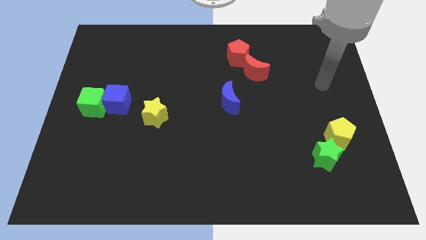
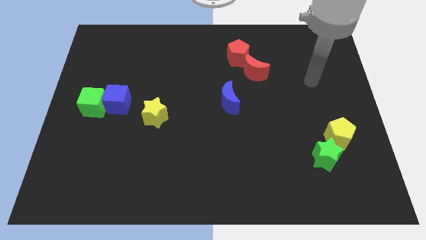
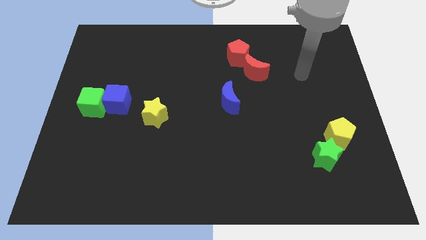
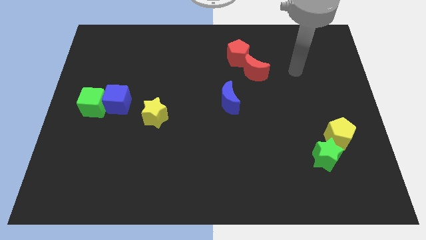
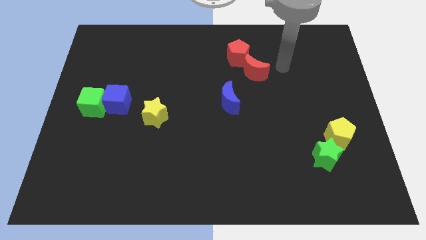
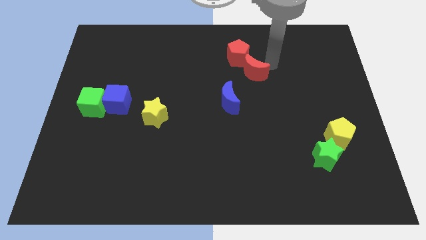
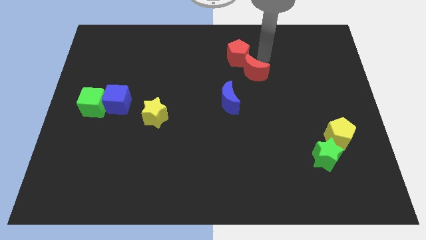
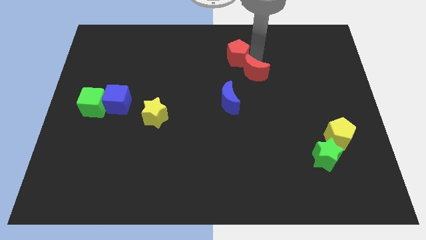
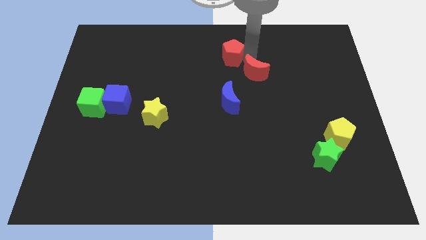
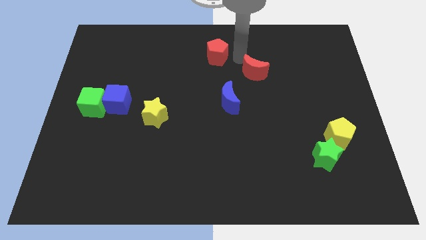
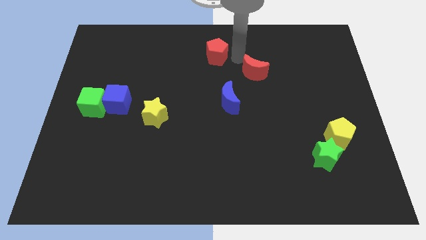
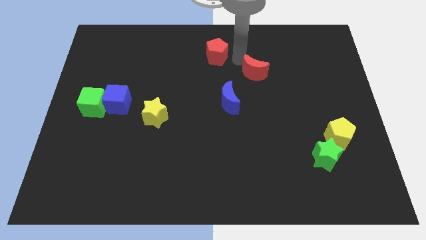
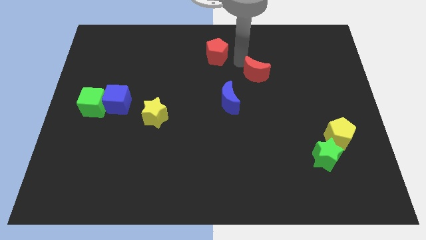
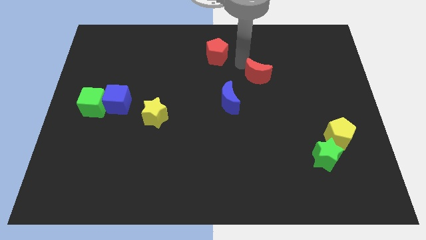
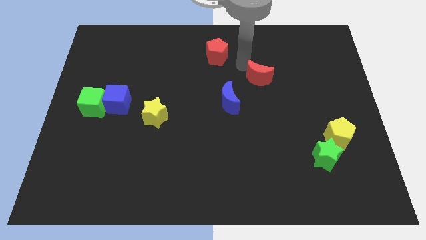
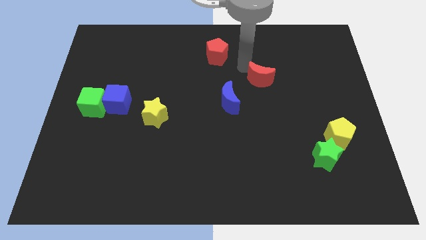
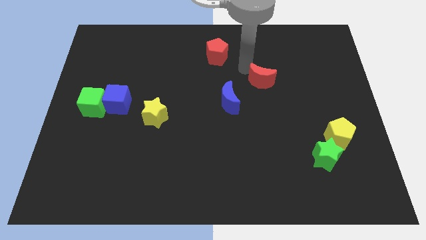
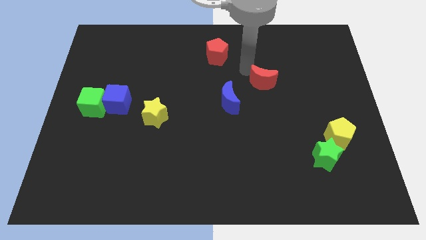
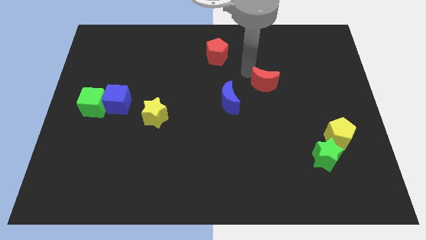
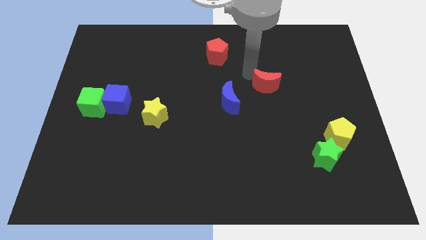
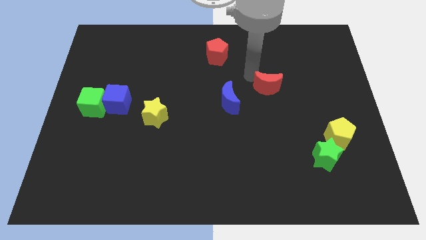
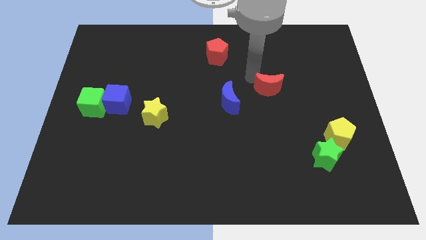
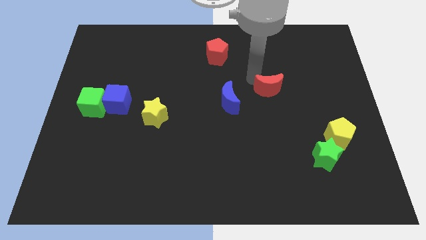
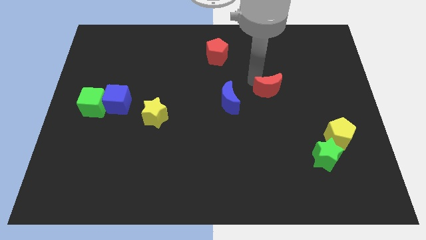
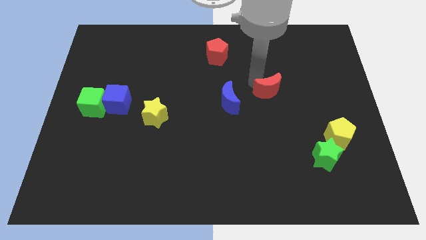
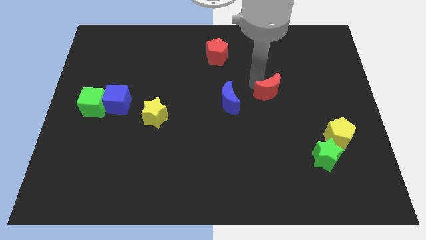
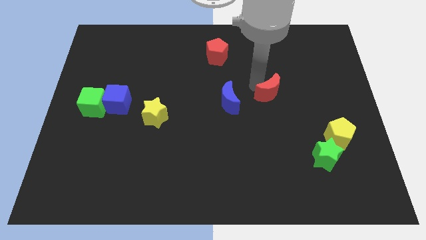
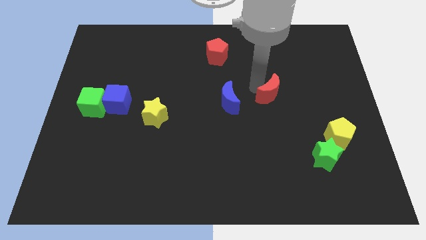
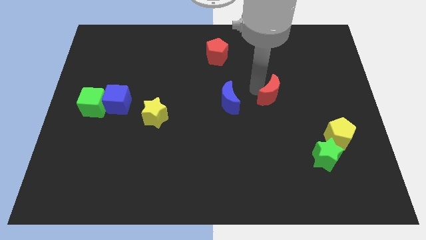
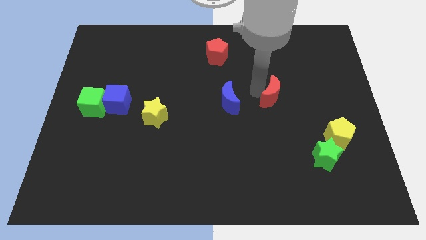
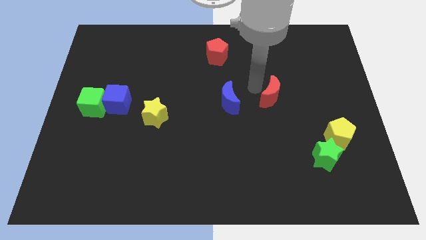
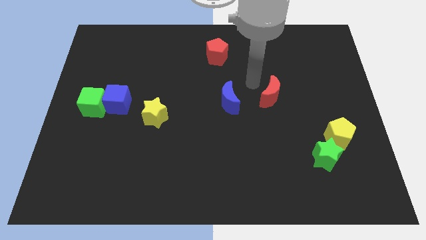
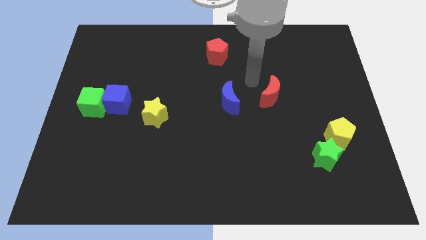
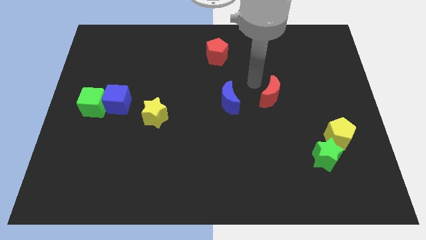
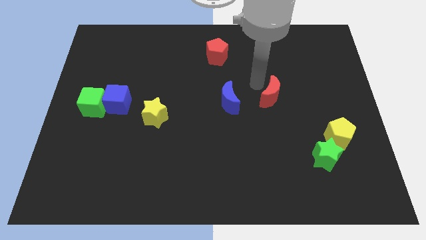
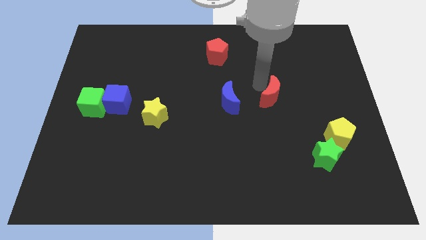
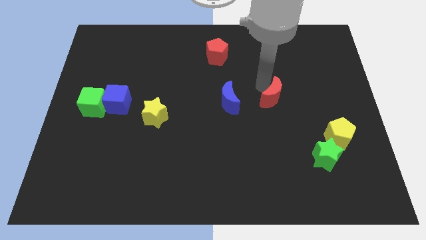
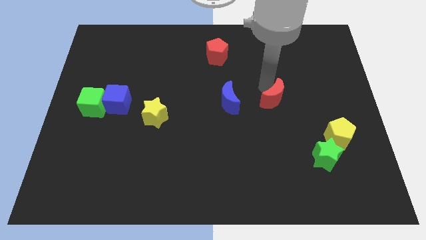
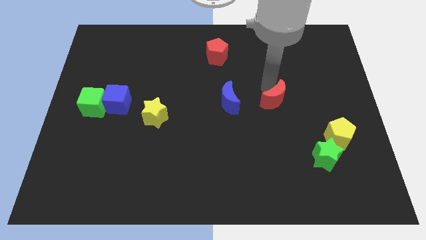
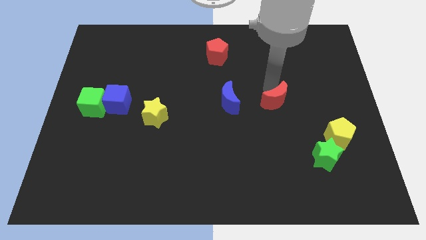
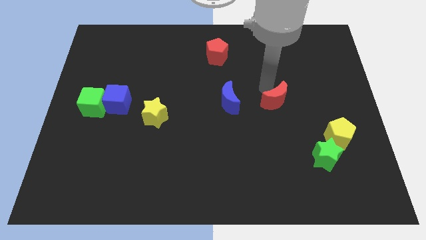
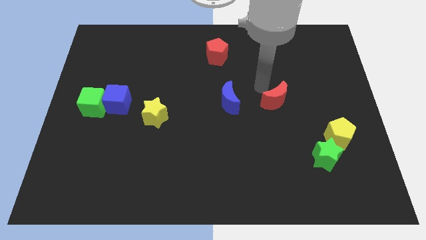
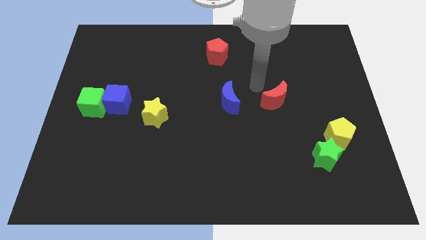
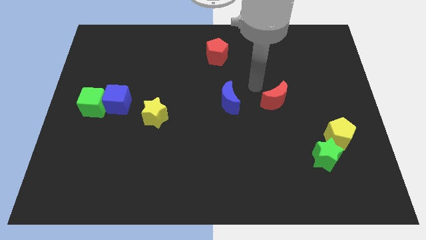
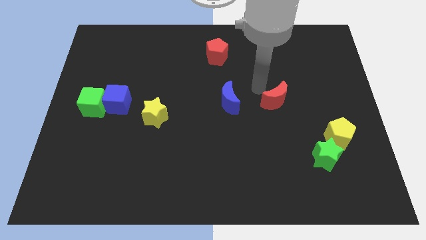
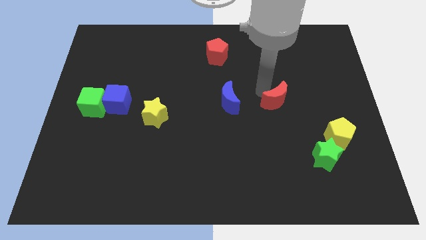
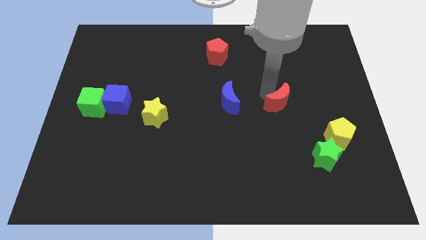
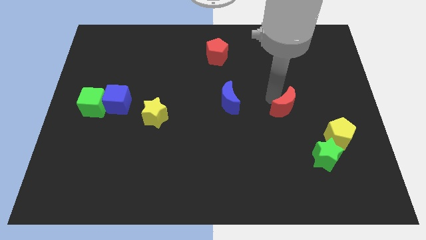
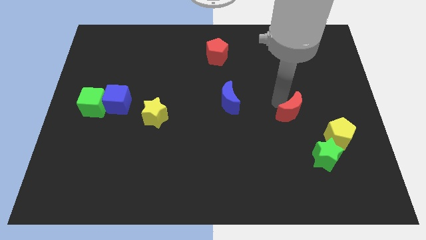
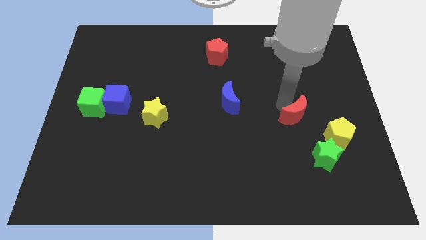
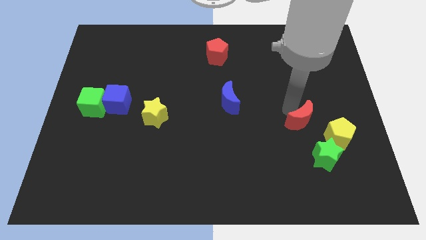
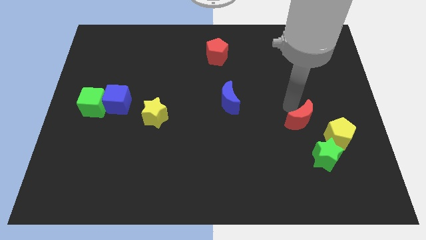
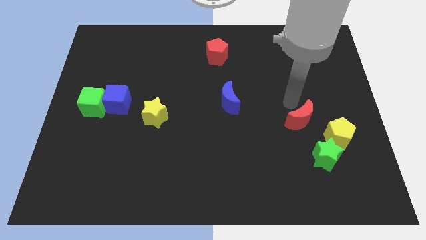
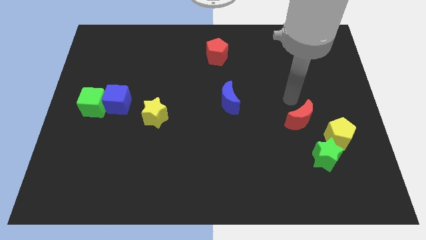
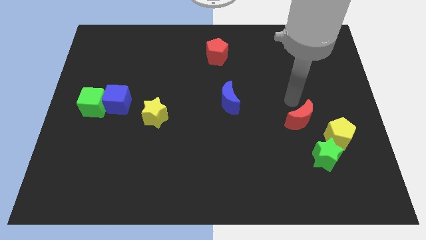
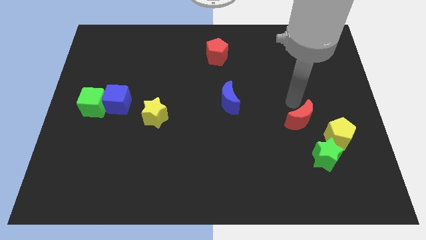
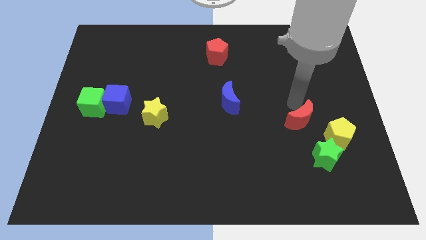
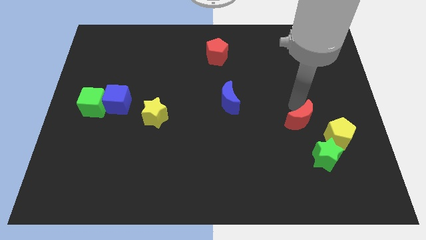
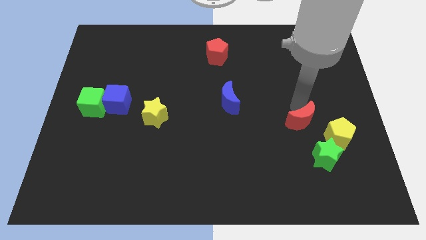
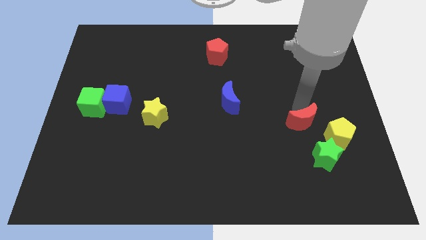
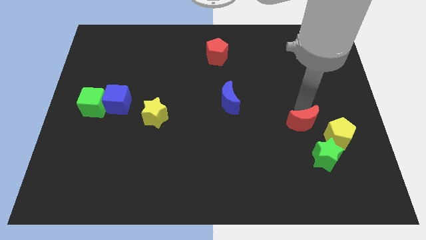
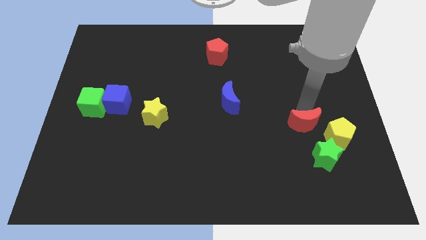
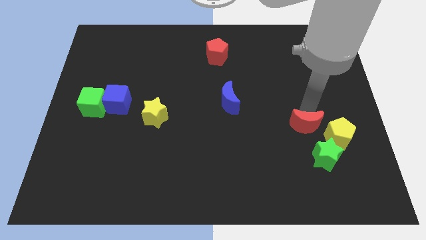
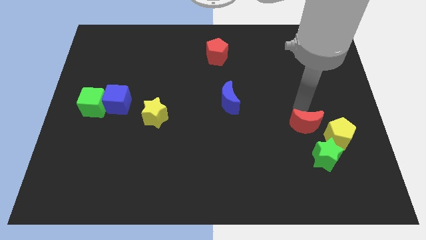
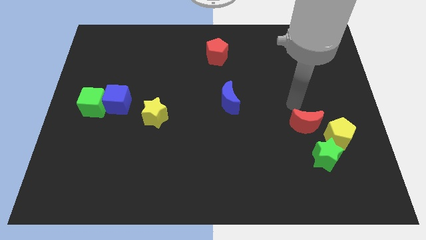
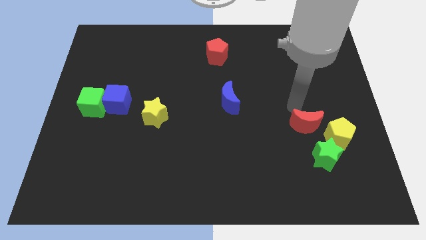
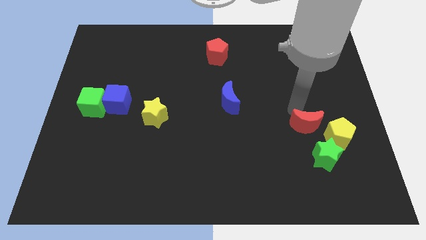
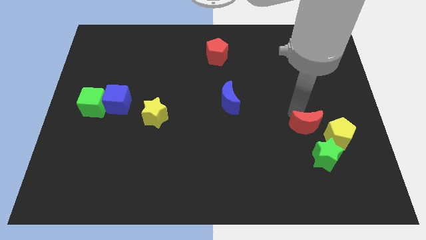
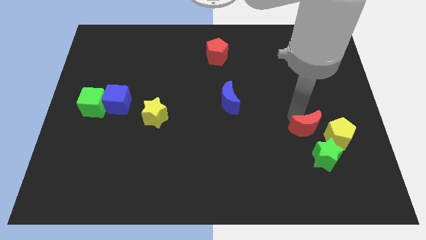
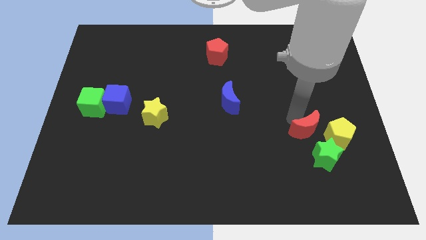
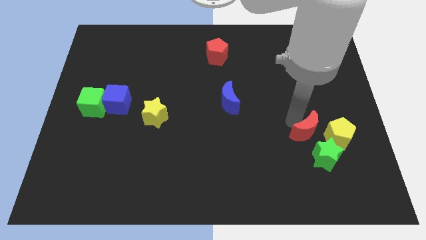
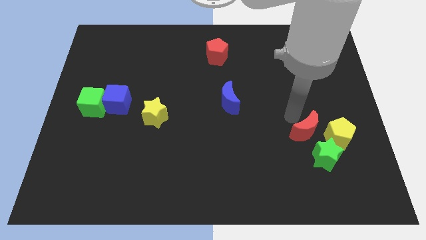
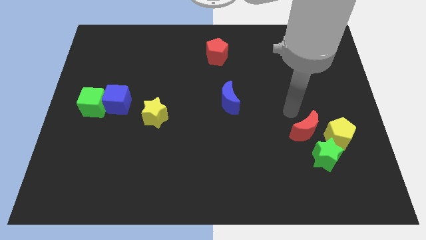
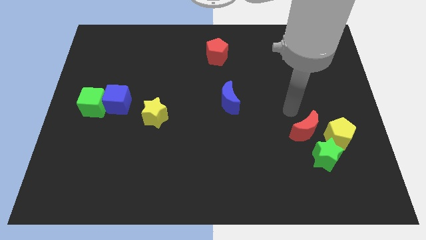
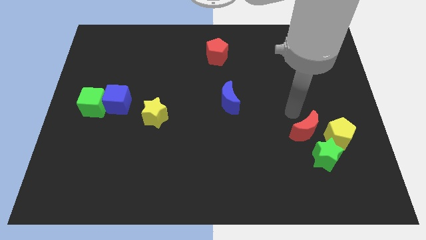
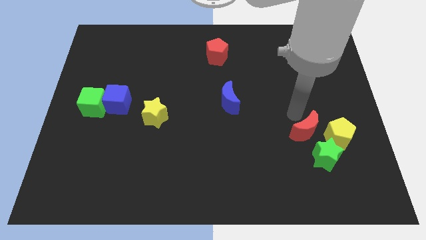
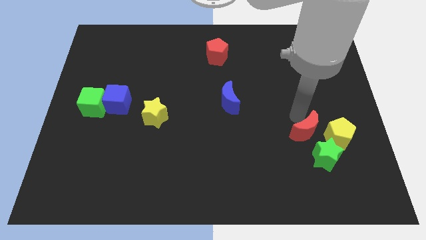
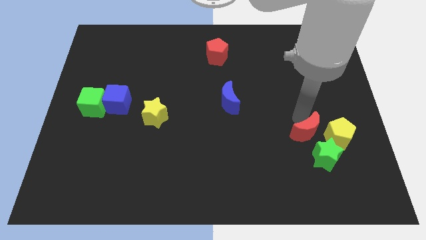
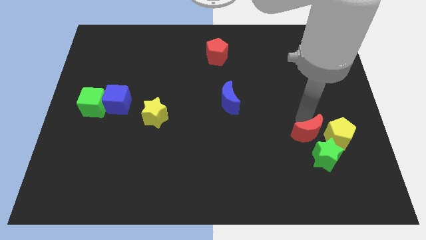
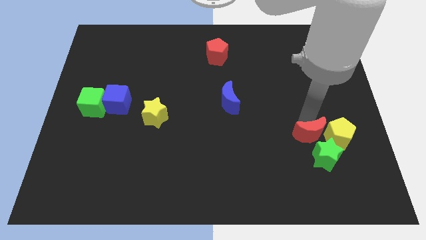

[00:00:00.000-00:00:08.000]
put the red moon towards the green star
